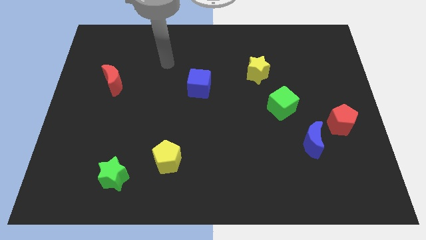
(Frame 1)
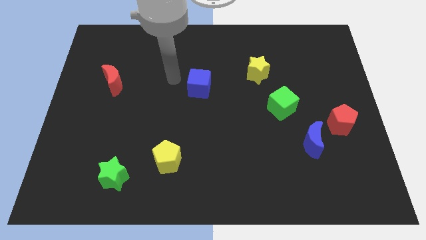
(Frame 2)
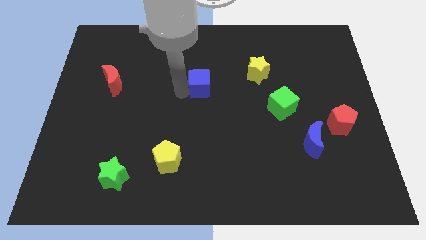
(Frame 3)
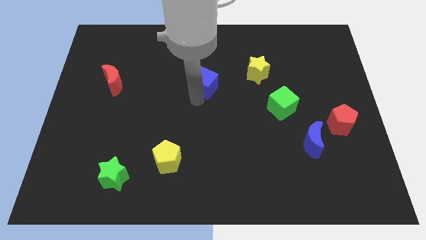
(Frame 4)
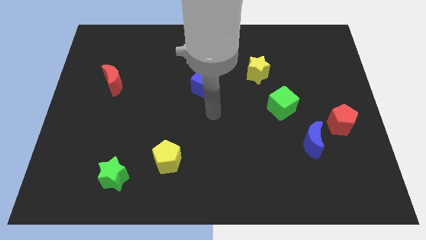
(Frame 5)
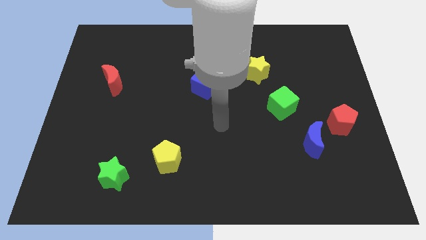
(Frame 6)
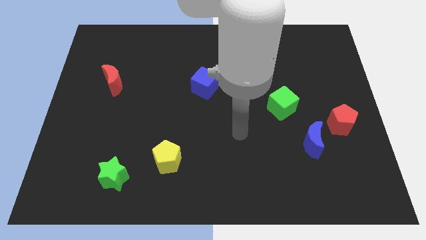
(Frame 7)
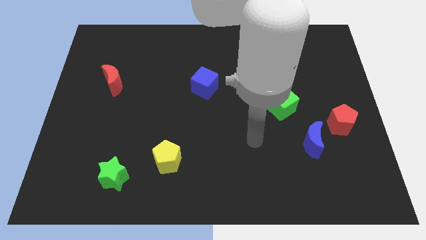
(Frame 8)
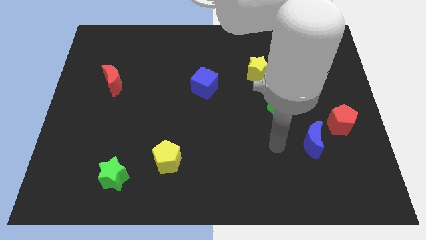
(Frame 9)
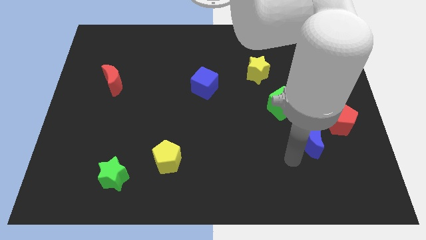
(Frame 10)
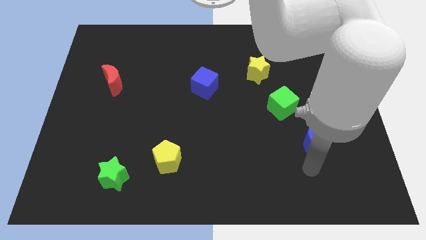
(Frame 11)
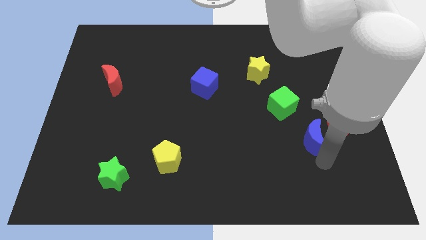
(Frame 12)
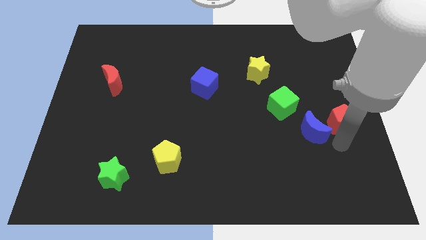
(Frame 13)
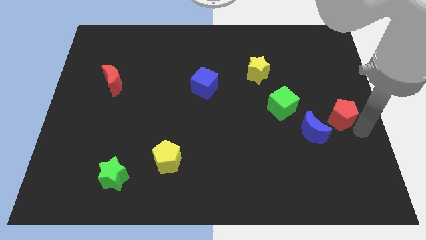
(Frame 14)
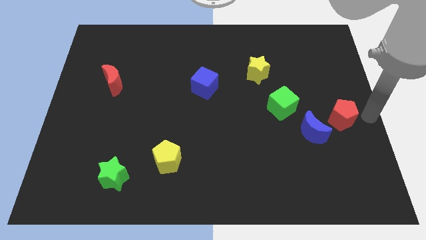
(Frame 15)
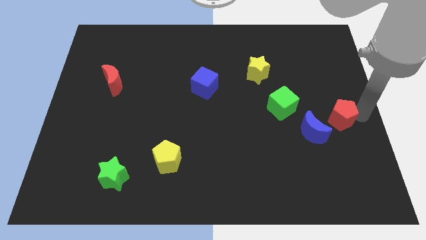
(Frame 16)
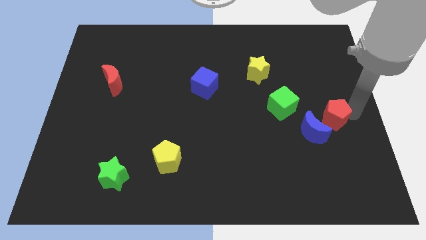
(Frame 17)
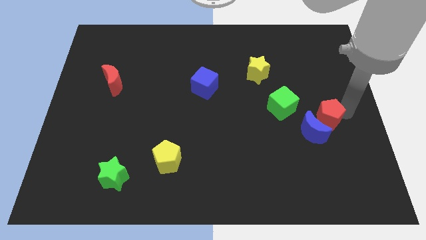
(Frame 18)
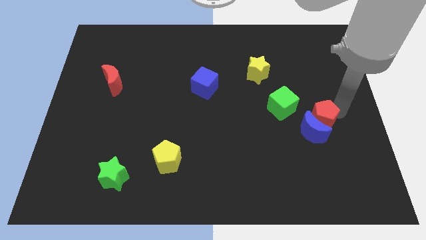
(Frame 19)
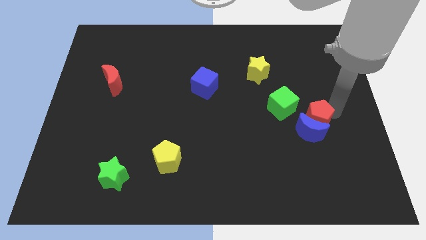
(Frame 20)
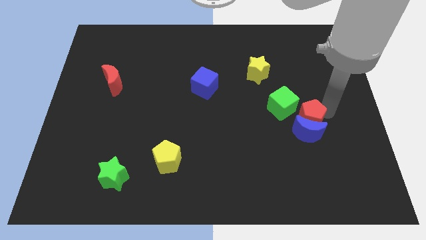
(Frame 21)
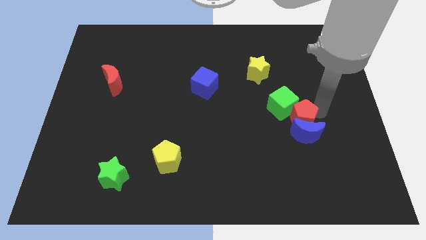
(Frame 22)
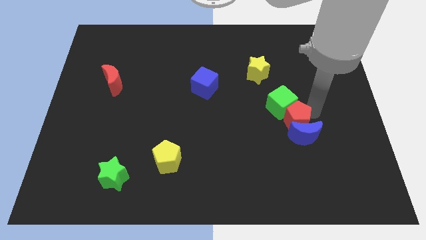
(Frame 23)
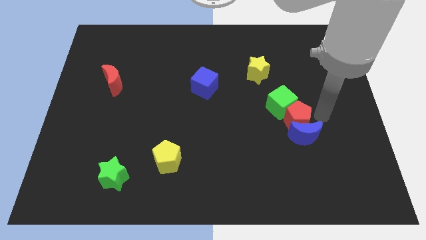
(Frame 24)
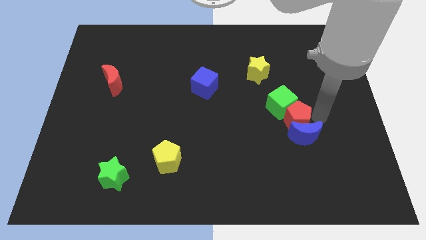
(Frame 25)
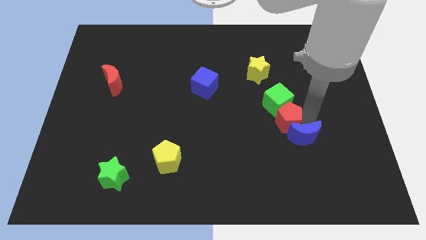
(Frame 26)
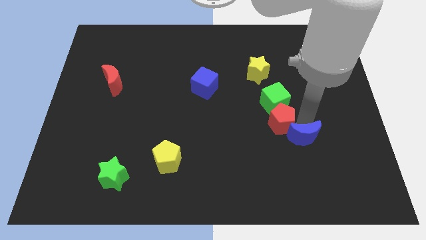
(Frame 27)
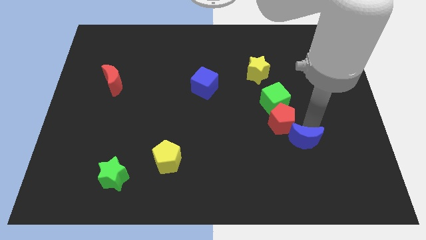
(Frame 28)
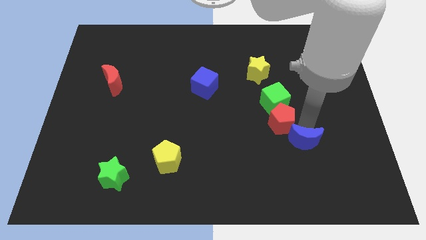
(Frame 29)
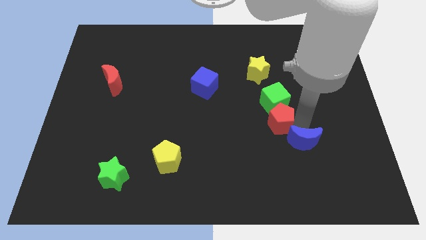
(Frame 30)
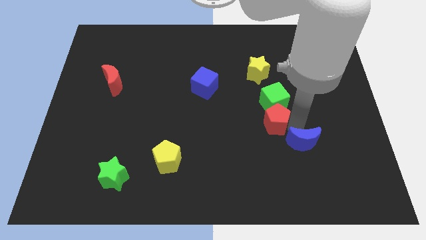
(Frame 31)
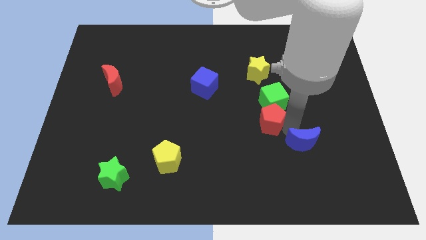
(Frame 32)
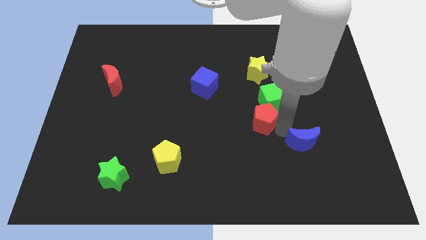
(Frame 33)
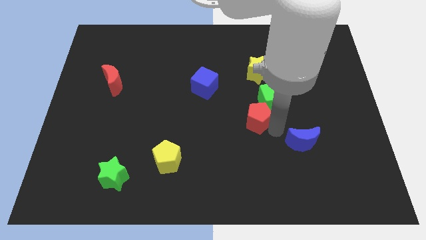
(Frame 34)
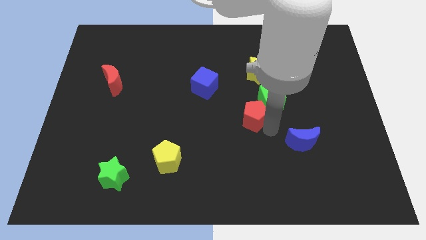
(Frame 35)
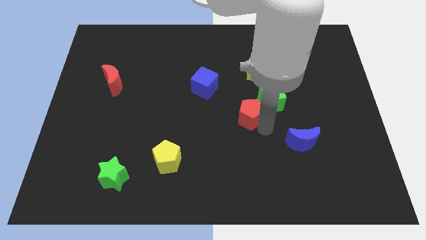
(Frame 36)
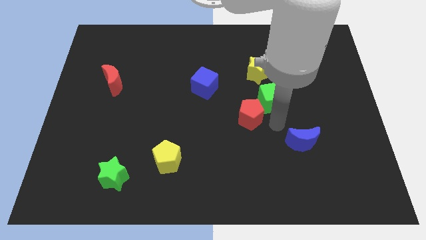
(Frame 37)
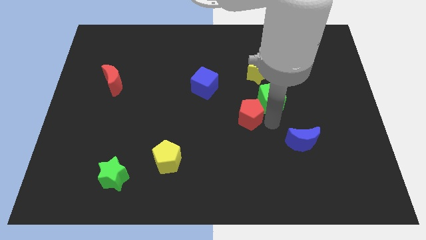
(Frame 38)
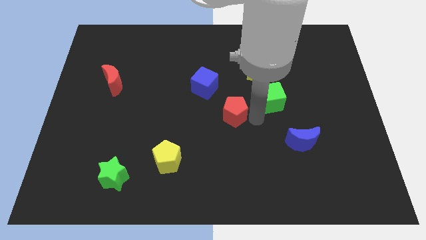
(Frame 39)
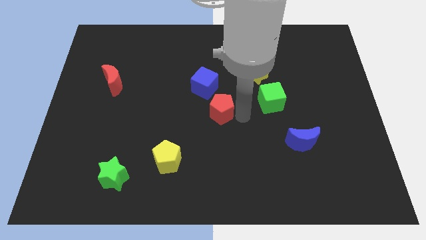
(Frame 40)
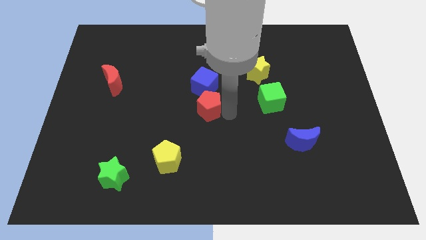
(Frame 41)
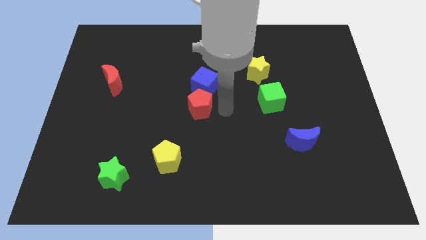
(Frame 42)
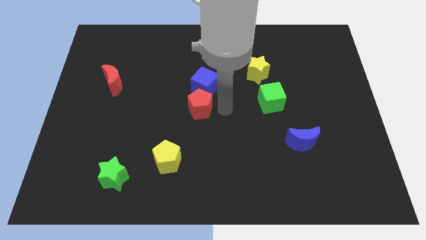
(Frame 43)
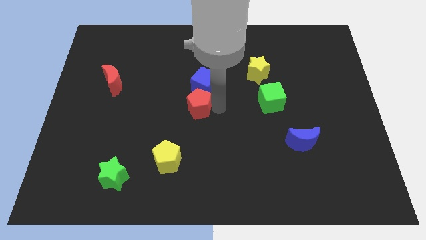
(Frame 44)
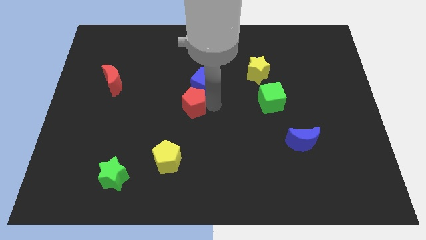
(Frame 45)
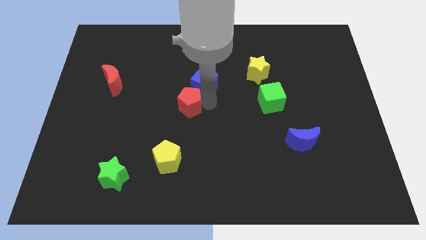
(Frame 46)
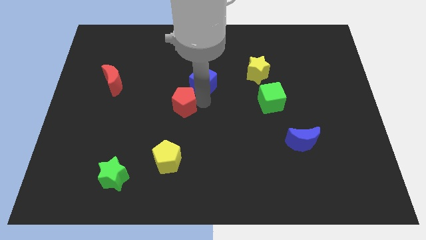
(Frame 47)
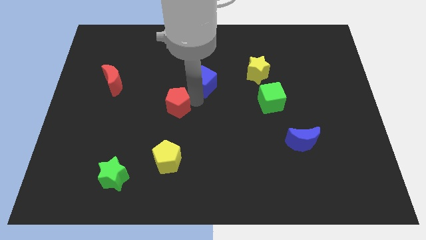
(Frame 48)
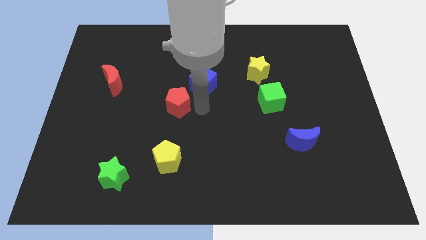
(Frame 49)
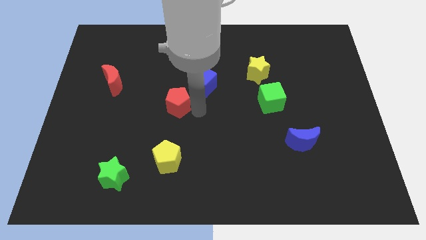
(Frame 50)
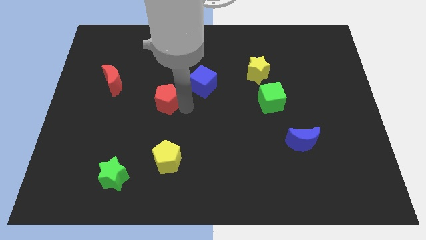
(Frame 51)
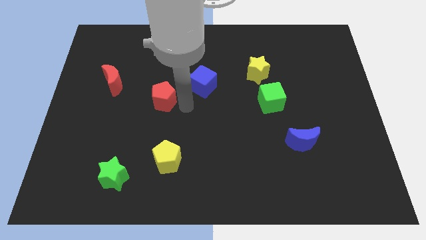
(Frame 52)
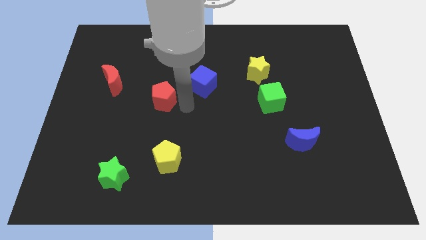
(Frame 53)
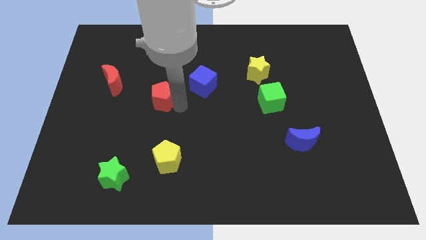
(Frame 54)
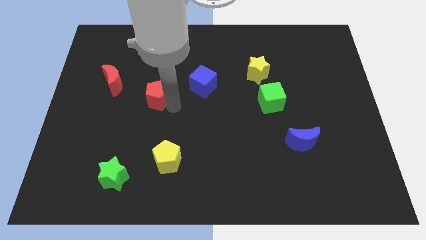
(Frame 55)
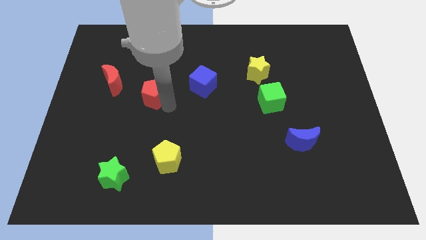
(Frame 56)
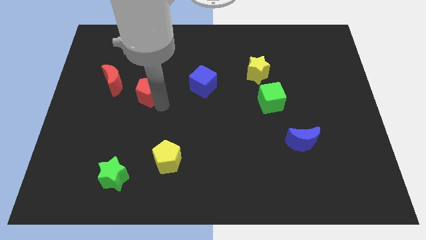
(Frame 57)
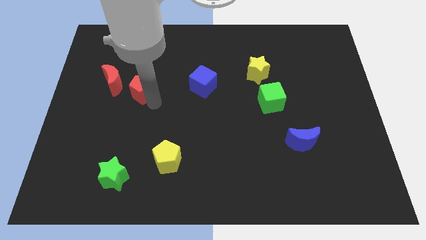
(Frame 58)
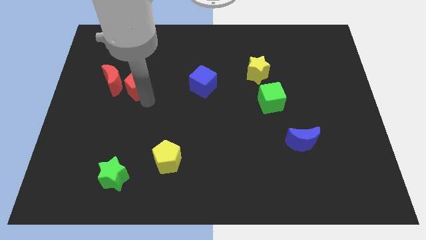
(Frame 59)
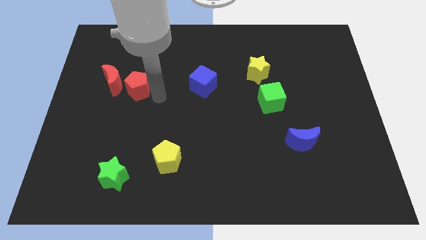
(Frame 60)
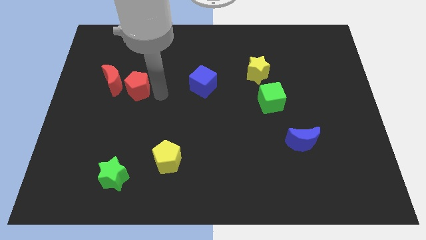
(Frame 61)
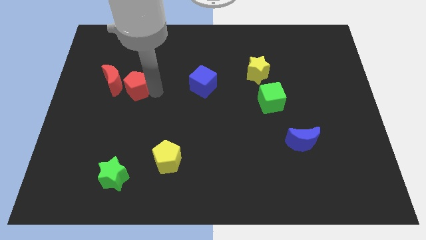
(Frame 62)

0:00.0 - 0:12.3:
slide the red pentagon to the red moon

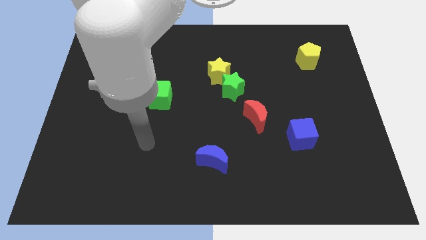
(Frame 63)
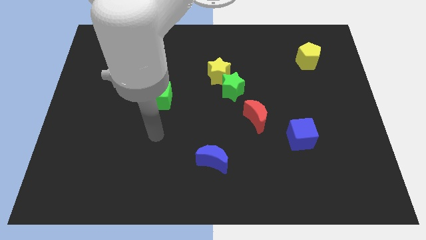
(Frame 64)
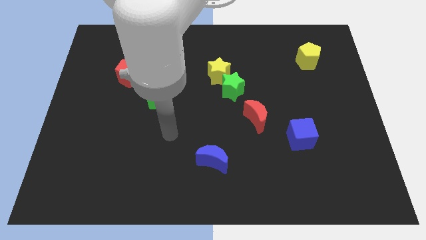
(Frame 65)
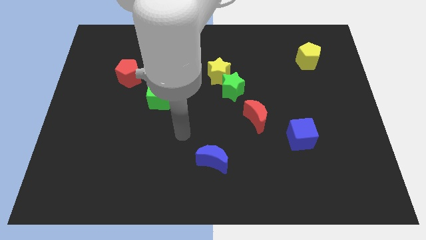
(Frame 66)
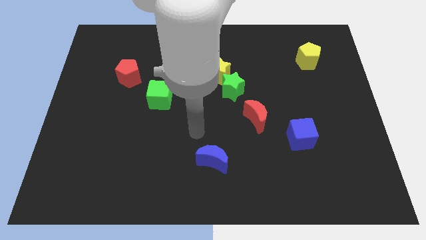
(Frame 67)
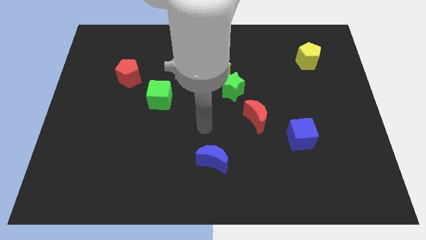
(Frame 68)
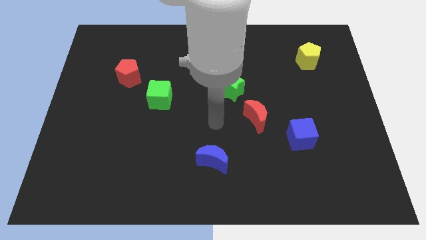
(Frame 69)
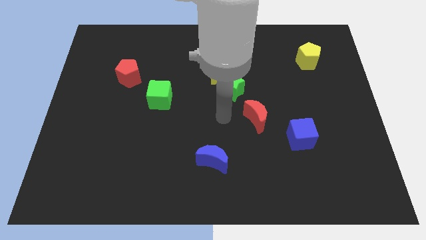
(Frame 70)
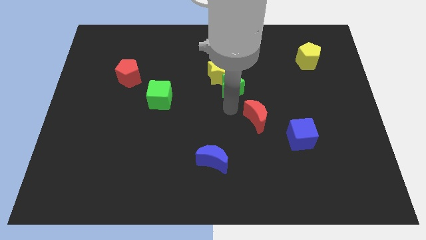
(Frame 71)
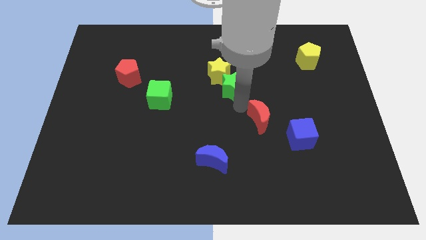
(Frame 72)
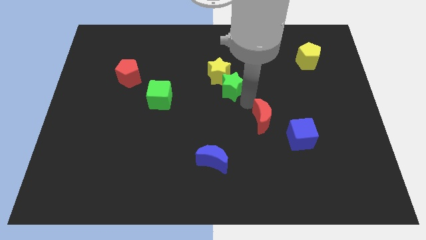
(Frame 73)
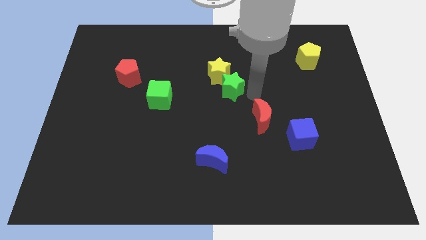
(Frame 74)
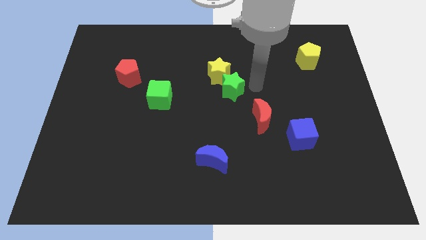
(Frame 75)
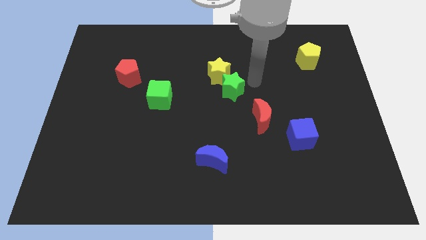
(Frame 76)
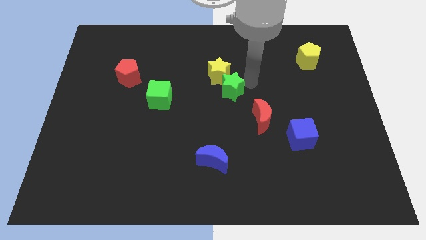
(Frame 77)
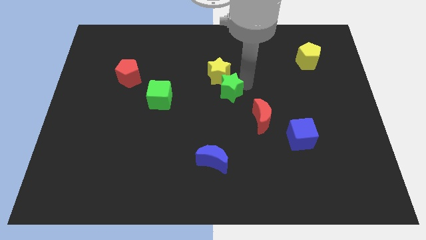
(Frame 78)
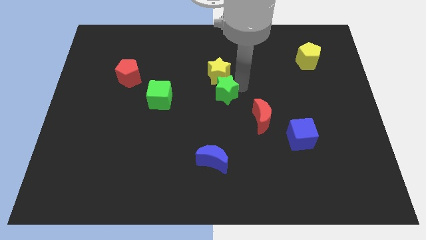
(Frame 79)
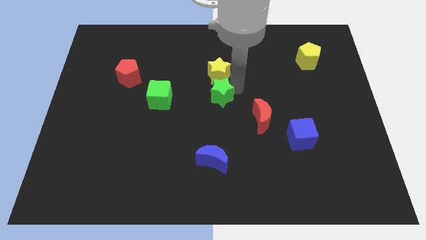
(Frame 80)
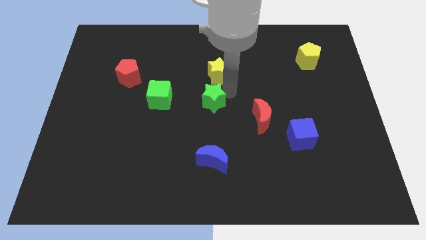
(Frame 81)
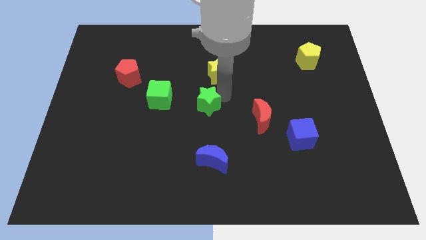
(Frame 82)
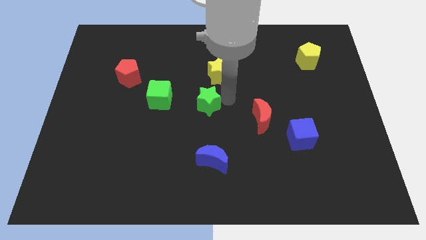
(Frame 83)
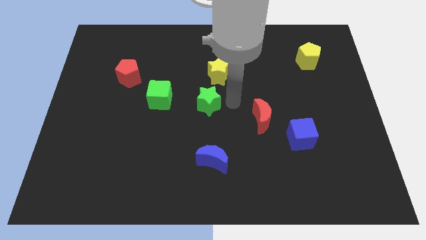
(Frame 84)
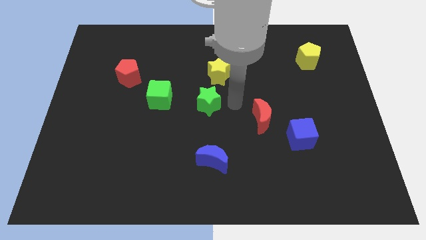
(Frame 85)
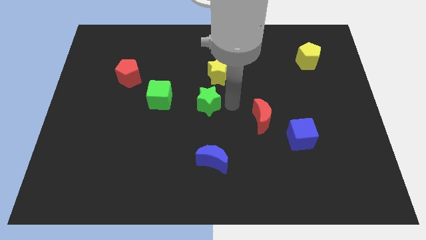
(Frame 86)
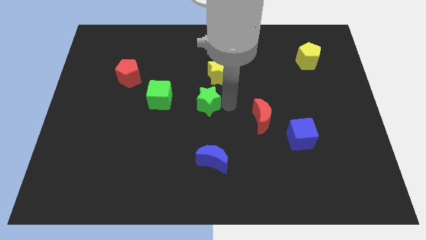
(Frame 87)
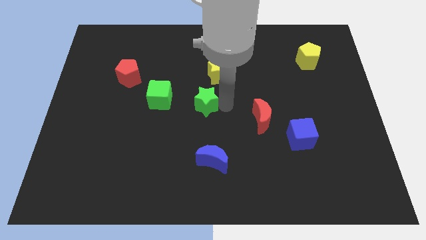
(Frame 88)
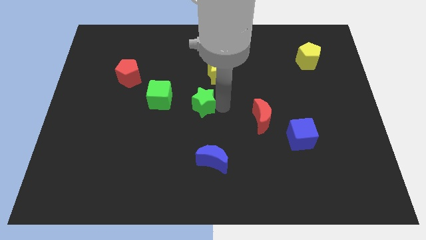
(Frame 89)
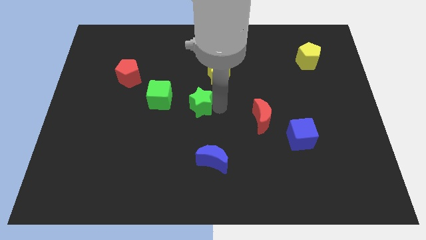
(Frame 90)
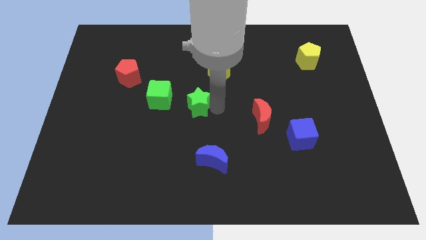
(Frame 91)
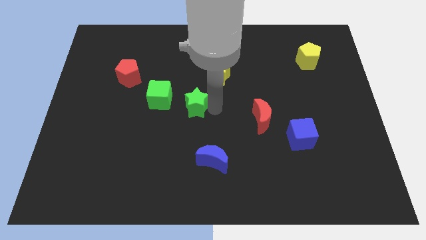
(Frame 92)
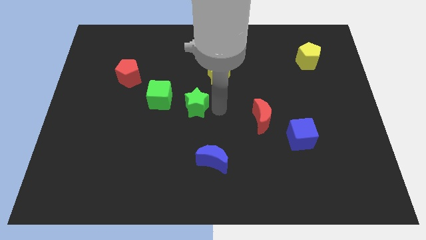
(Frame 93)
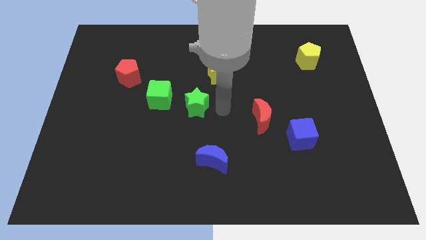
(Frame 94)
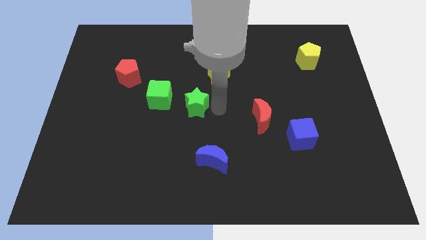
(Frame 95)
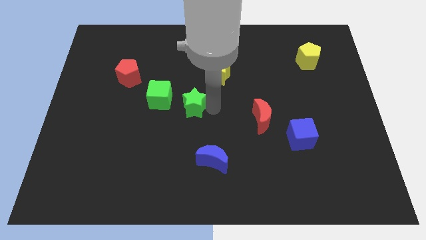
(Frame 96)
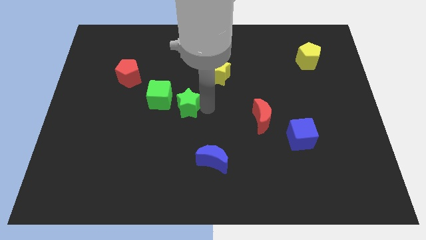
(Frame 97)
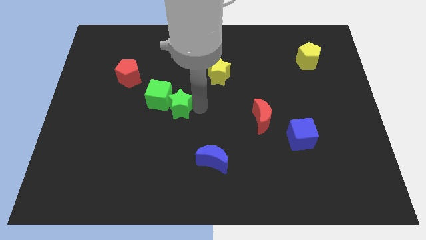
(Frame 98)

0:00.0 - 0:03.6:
put the green star next to the green cube
